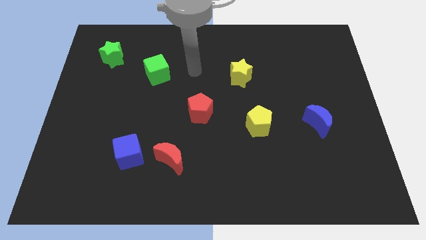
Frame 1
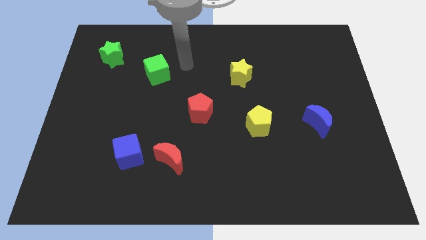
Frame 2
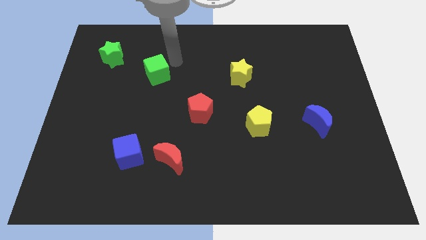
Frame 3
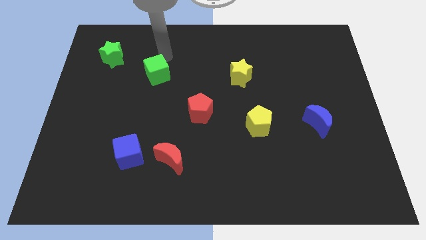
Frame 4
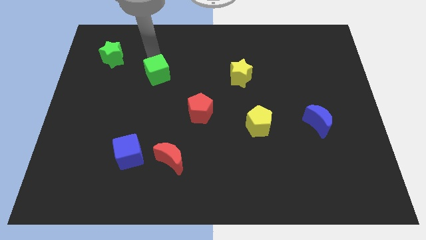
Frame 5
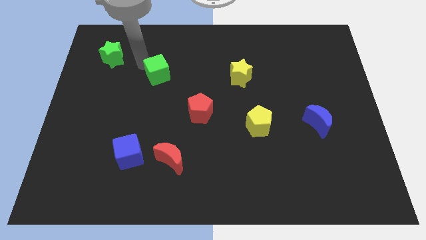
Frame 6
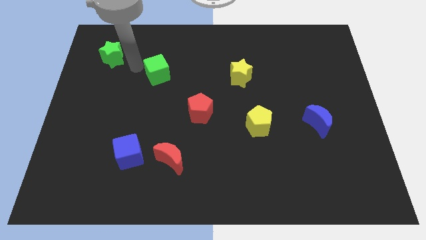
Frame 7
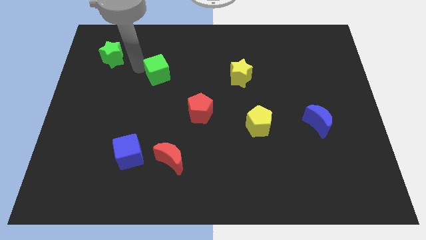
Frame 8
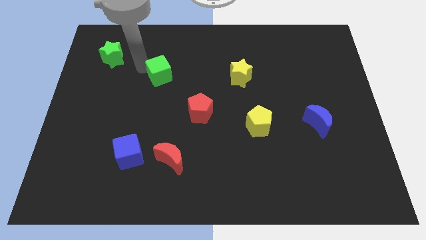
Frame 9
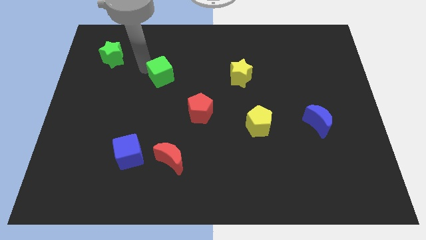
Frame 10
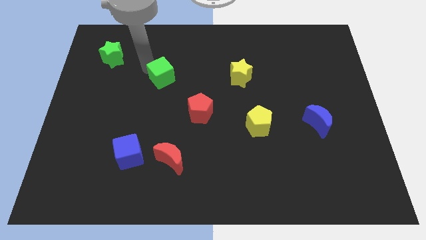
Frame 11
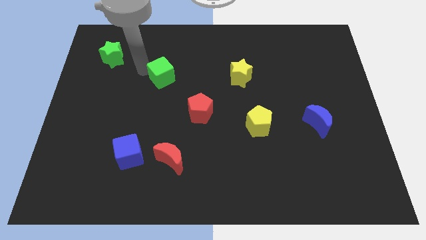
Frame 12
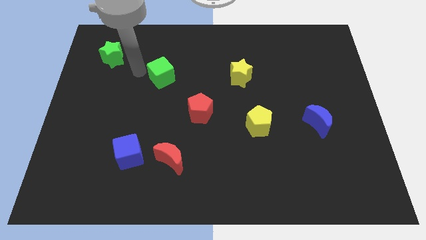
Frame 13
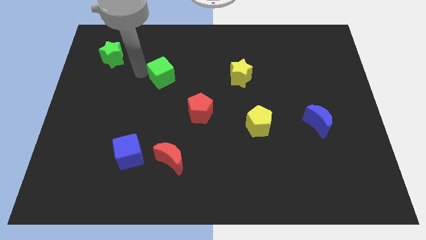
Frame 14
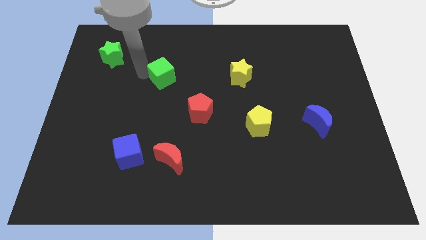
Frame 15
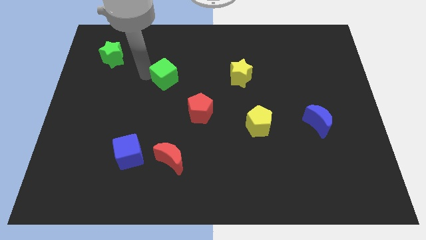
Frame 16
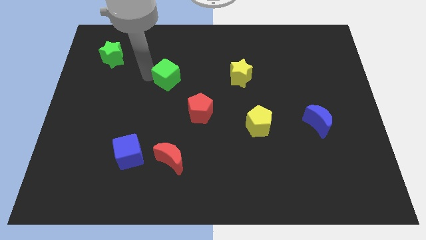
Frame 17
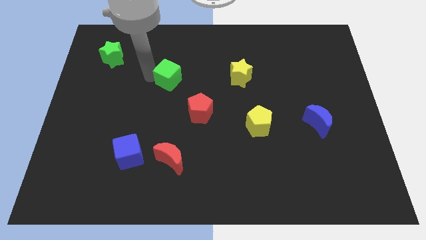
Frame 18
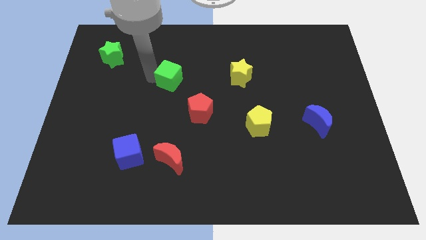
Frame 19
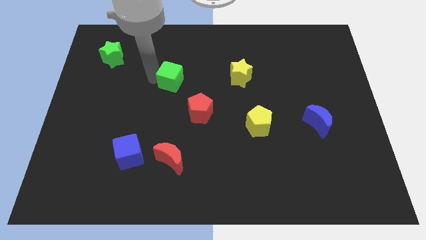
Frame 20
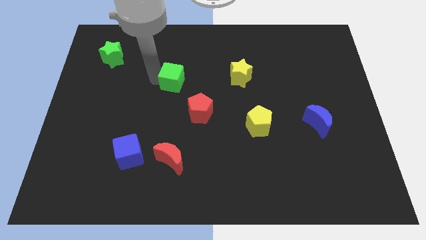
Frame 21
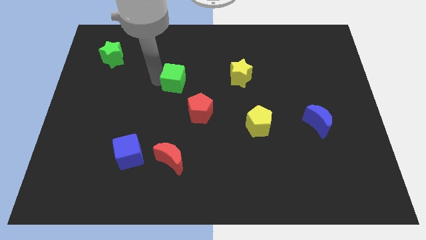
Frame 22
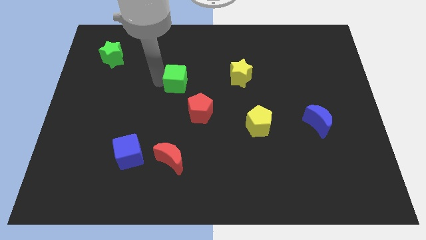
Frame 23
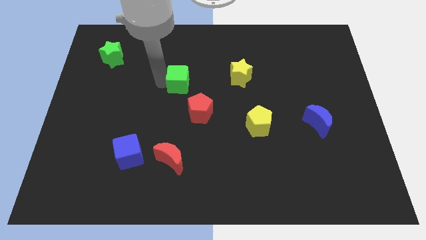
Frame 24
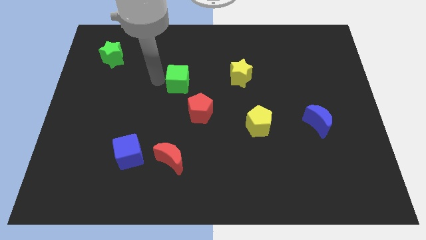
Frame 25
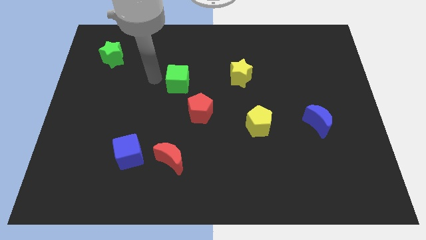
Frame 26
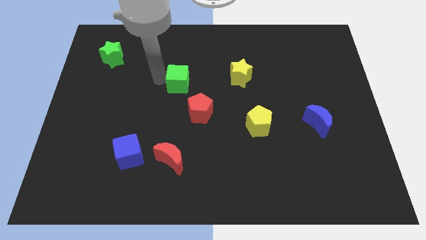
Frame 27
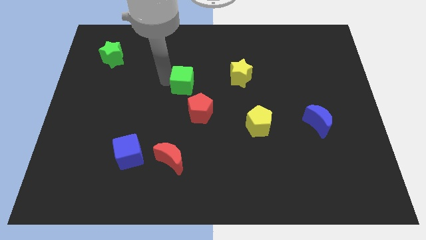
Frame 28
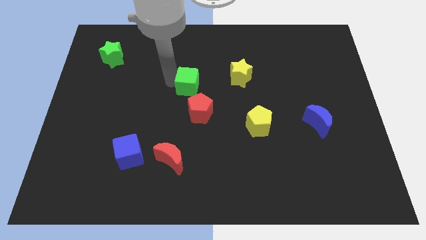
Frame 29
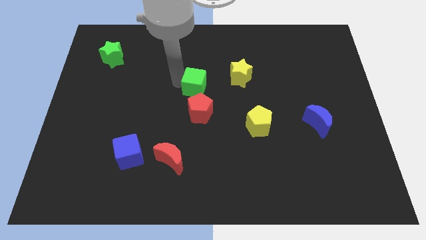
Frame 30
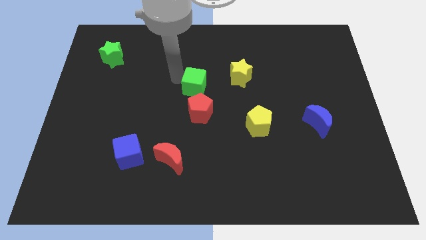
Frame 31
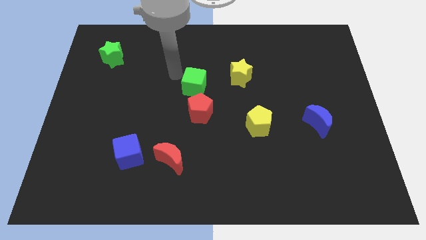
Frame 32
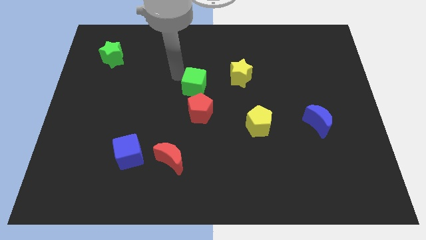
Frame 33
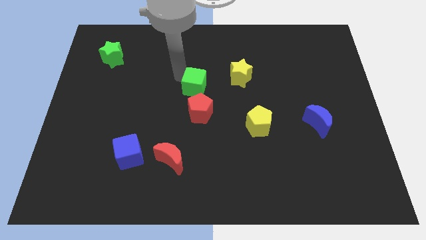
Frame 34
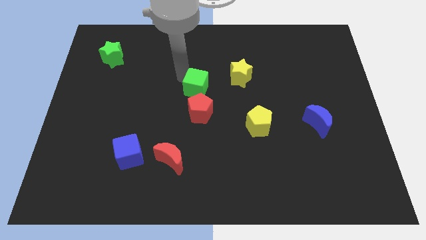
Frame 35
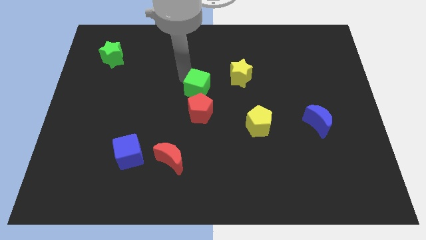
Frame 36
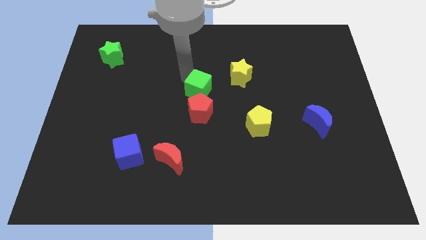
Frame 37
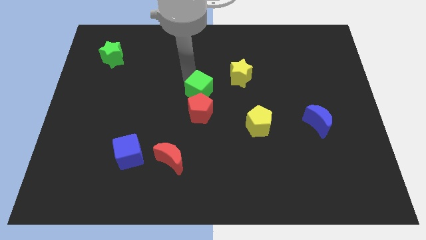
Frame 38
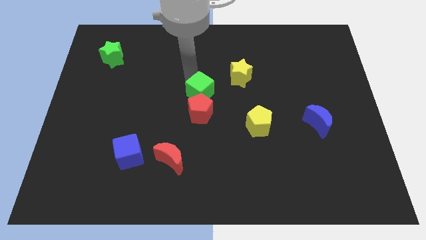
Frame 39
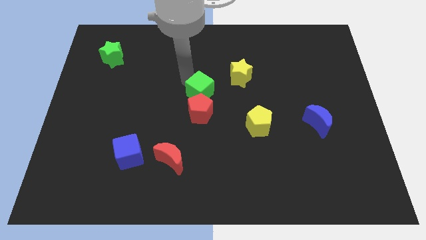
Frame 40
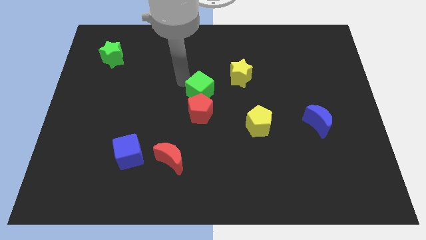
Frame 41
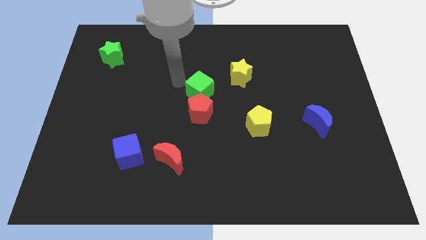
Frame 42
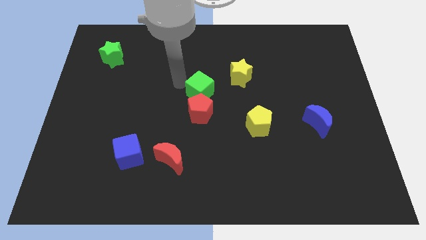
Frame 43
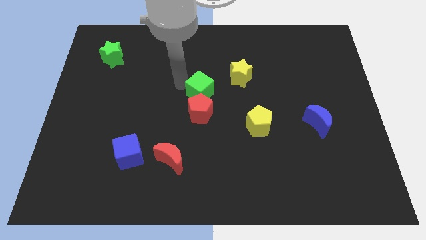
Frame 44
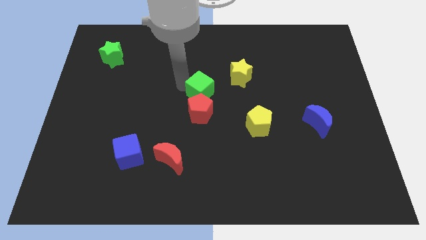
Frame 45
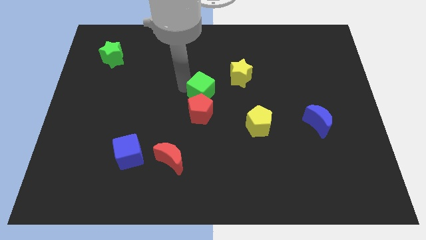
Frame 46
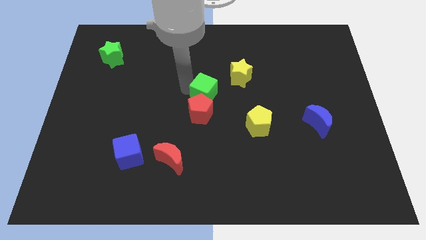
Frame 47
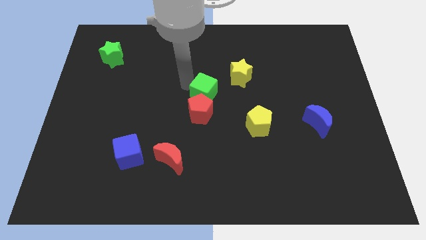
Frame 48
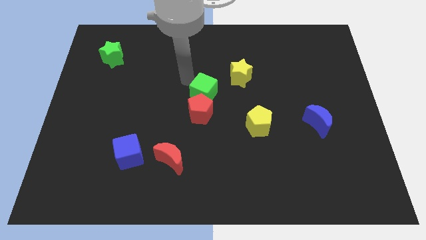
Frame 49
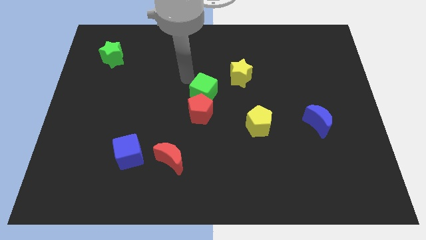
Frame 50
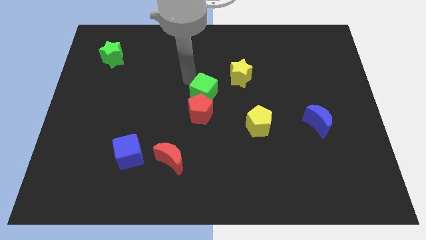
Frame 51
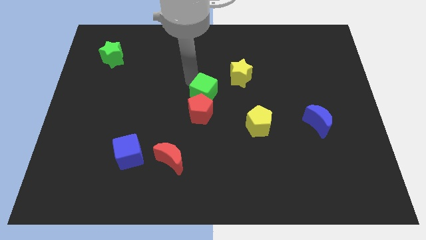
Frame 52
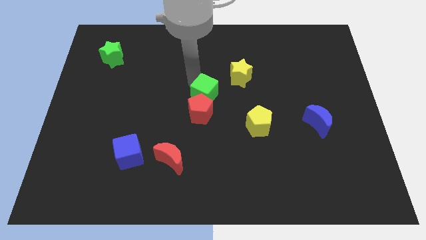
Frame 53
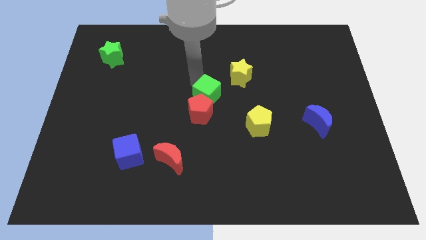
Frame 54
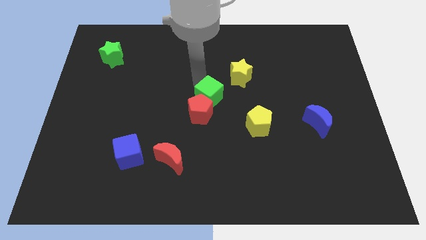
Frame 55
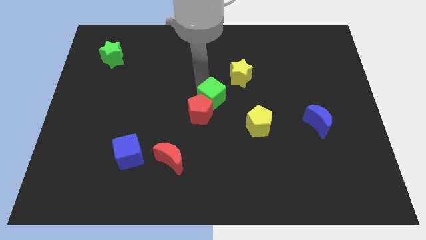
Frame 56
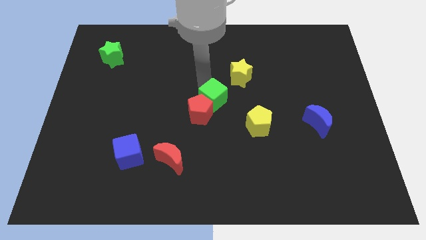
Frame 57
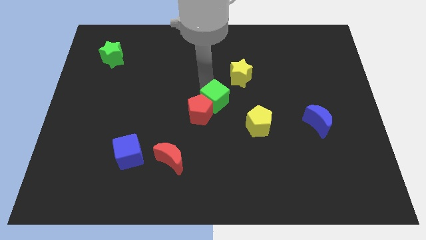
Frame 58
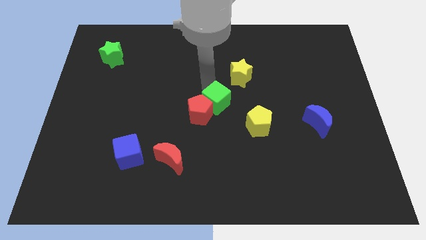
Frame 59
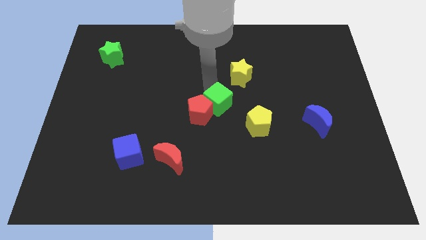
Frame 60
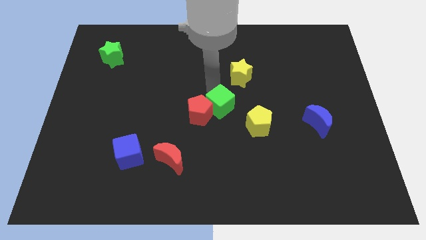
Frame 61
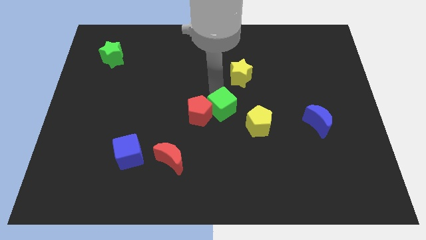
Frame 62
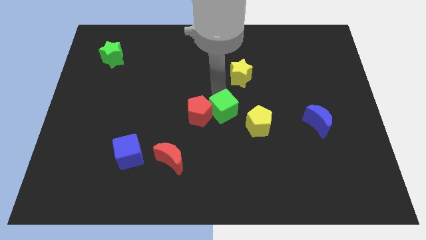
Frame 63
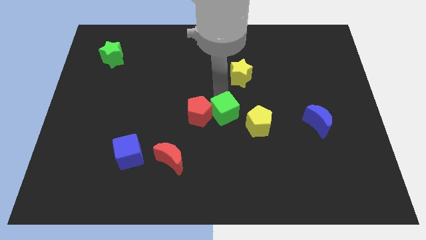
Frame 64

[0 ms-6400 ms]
move the green cube to the bottom right of the red pentagon

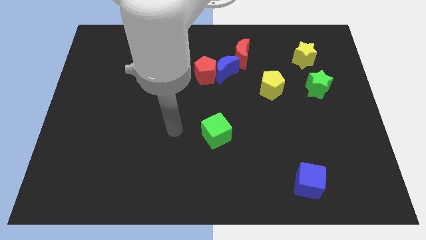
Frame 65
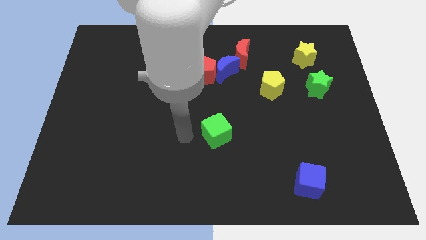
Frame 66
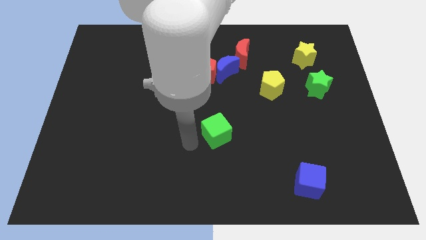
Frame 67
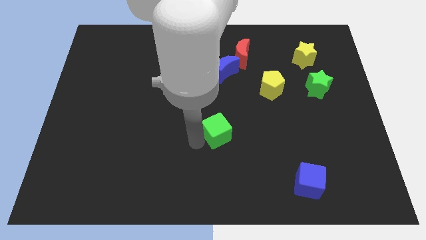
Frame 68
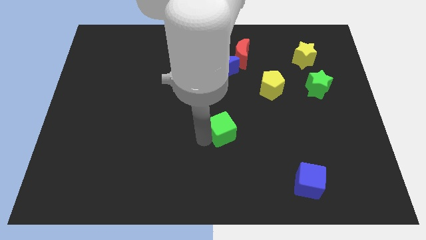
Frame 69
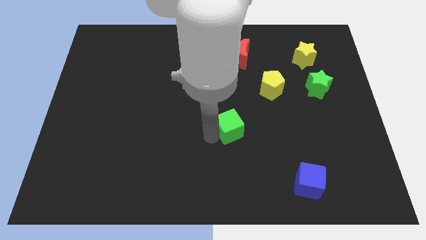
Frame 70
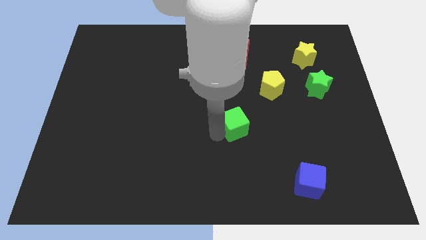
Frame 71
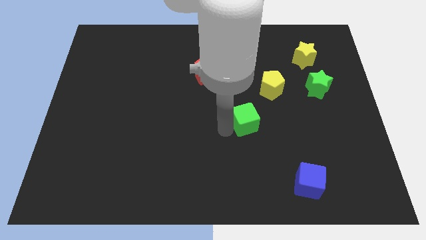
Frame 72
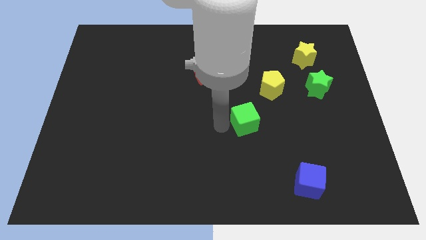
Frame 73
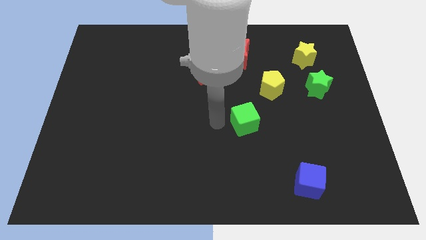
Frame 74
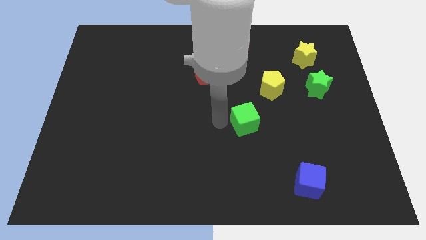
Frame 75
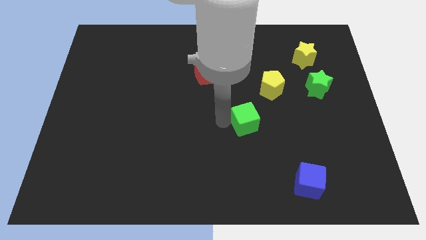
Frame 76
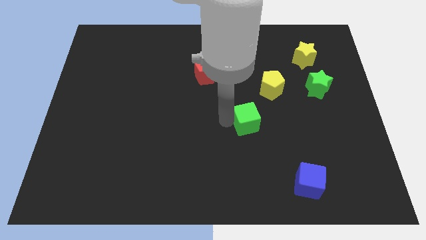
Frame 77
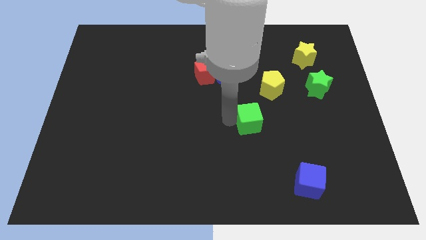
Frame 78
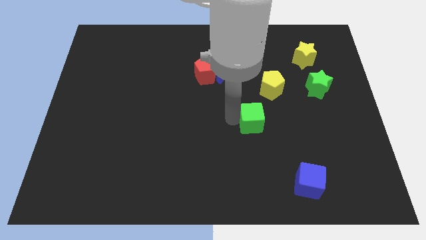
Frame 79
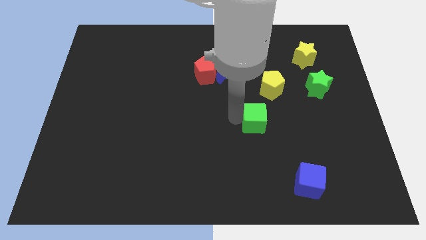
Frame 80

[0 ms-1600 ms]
push the green cube to the bottom side of the yellow pentagon
